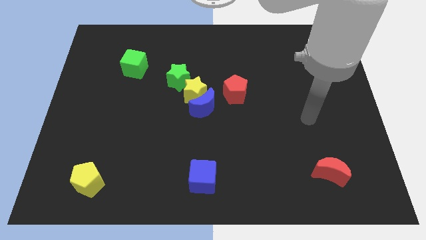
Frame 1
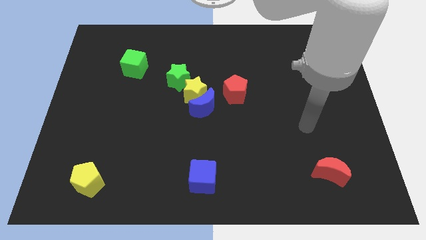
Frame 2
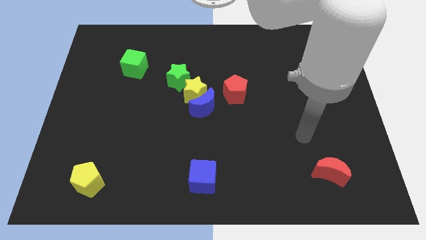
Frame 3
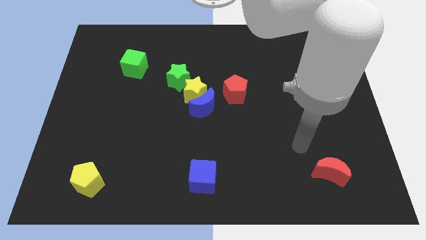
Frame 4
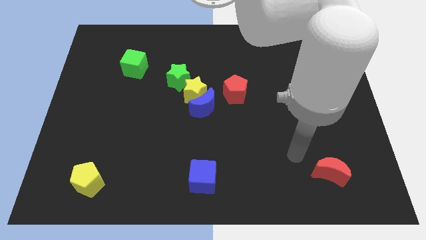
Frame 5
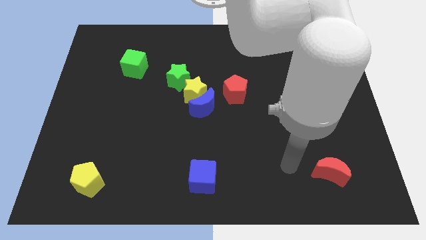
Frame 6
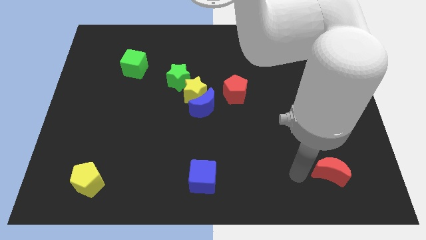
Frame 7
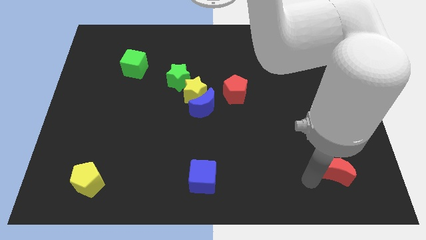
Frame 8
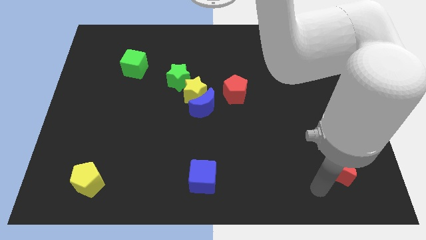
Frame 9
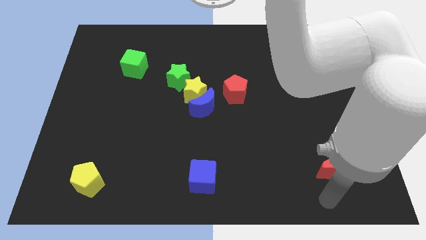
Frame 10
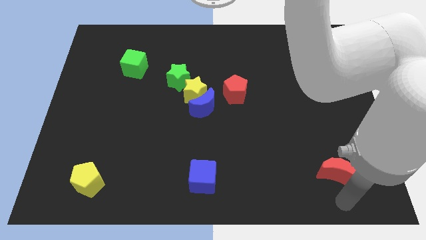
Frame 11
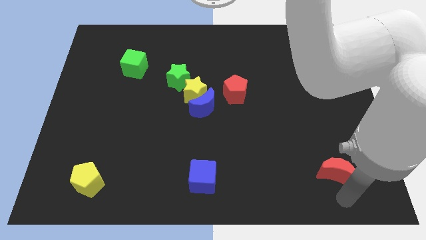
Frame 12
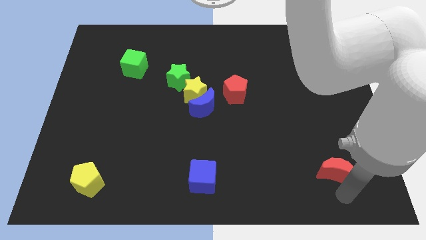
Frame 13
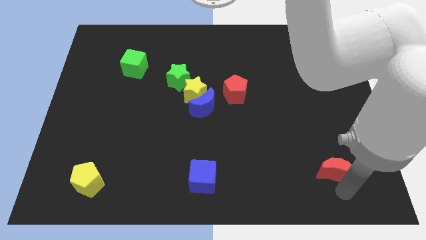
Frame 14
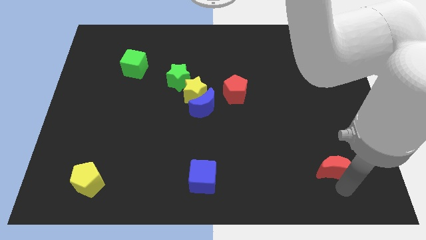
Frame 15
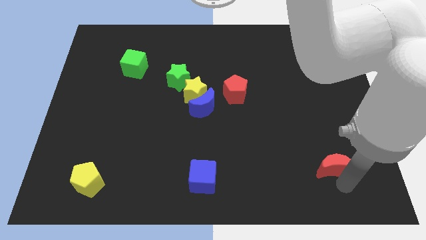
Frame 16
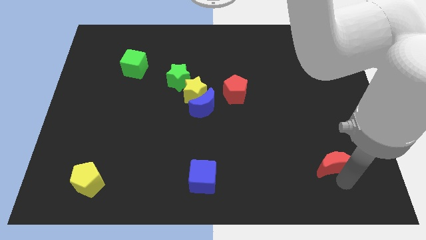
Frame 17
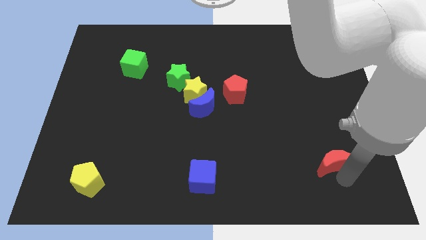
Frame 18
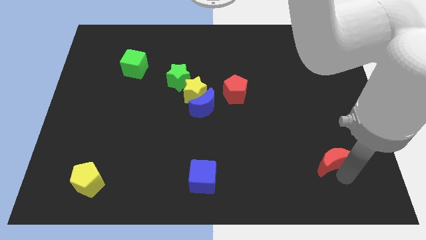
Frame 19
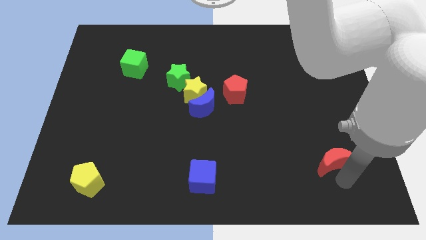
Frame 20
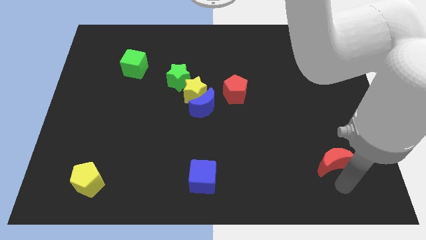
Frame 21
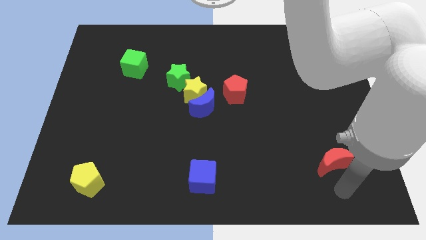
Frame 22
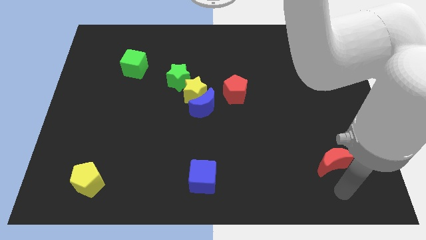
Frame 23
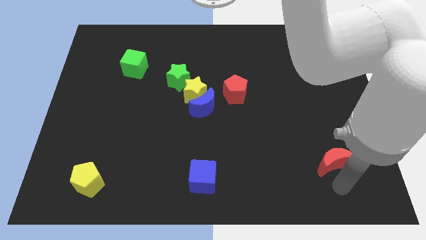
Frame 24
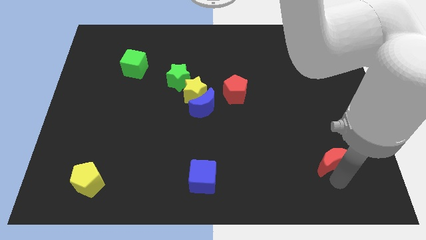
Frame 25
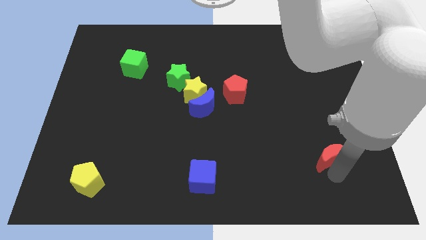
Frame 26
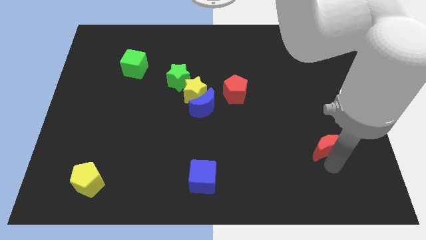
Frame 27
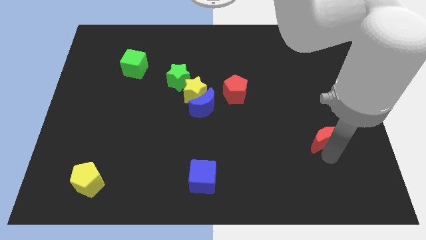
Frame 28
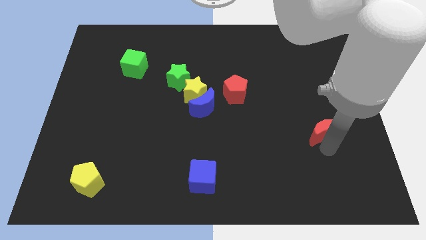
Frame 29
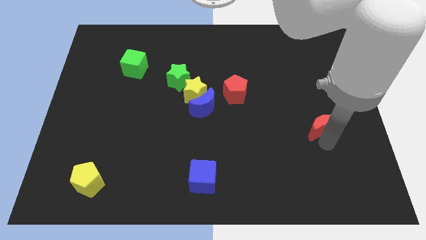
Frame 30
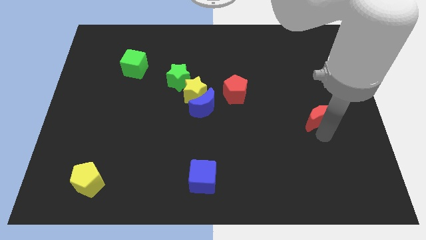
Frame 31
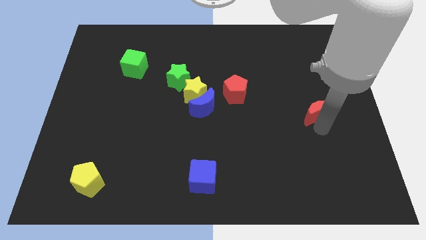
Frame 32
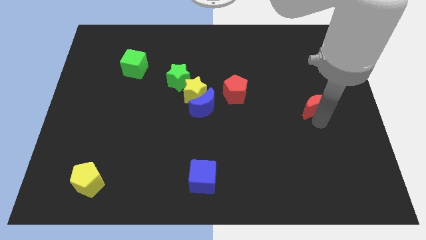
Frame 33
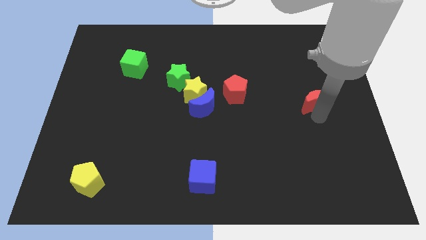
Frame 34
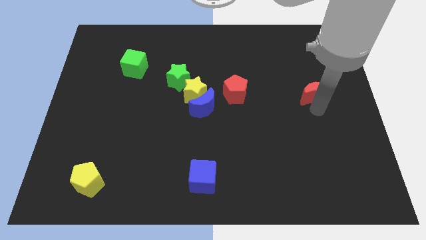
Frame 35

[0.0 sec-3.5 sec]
move the red moon up

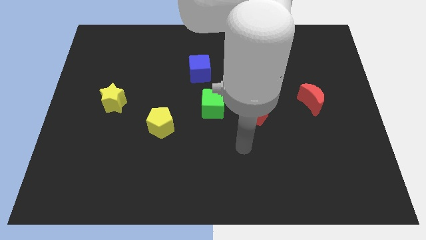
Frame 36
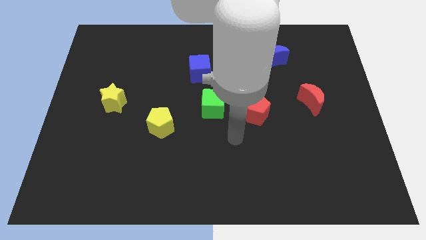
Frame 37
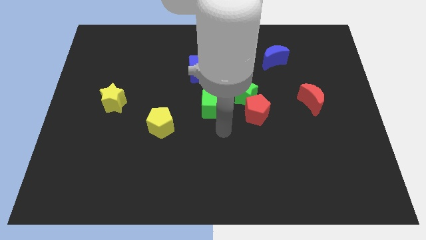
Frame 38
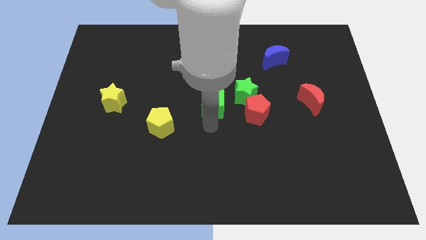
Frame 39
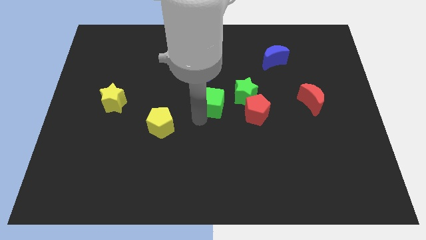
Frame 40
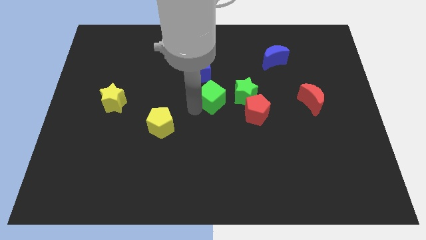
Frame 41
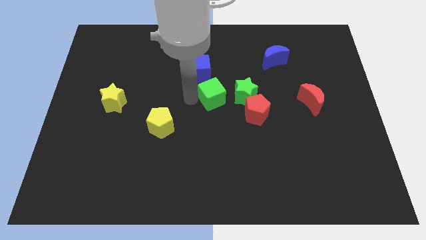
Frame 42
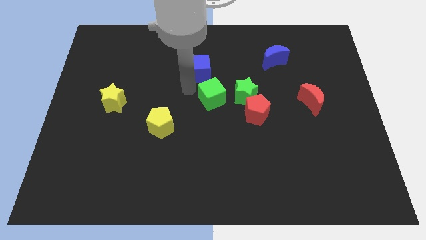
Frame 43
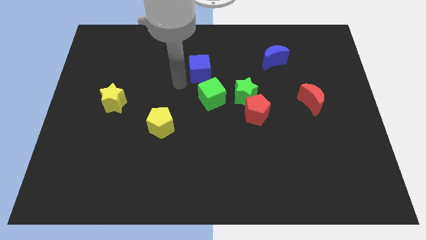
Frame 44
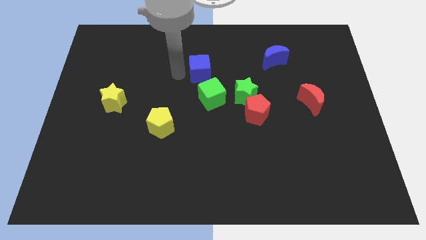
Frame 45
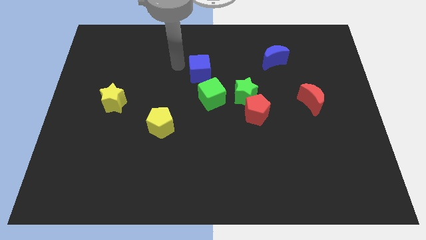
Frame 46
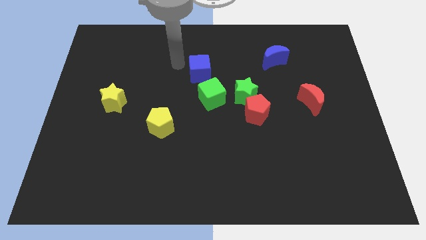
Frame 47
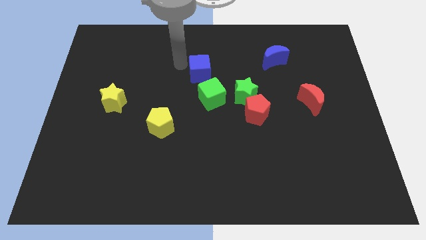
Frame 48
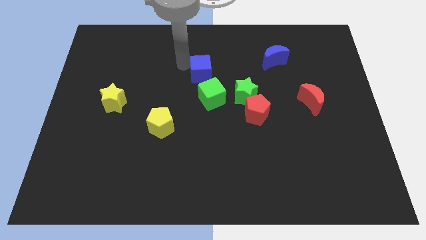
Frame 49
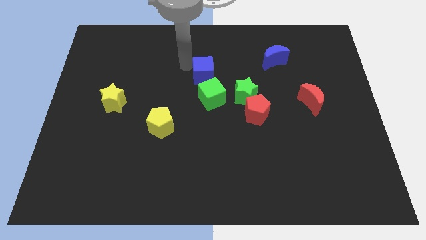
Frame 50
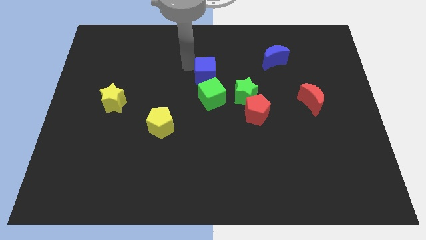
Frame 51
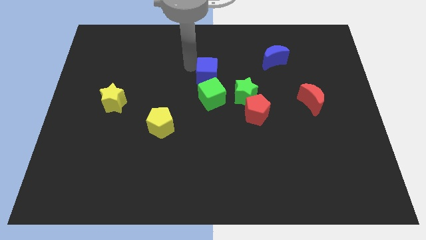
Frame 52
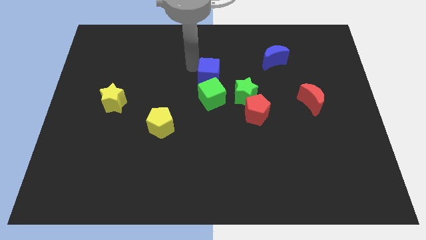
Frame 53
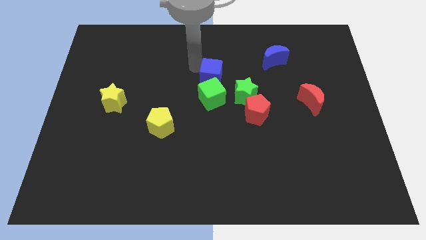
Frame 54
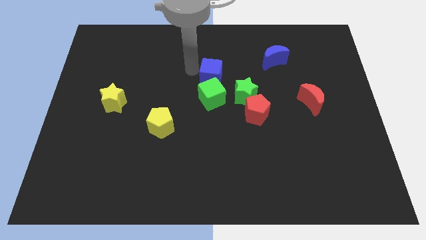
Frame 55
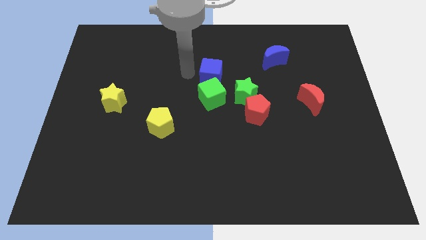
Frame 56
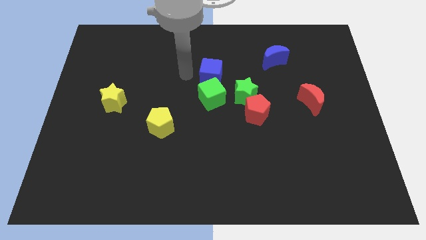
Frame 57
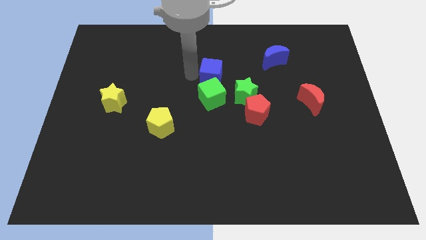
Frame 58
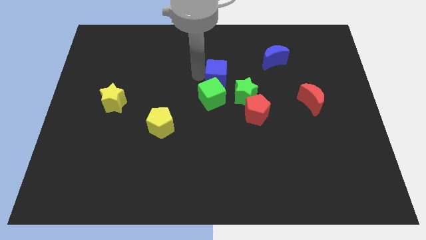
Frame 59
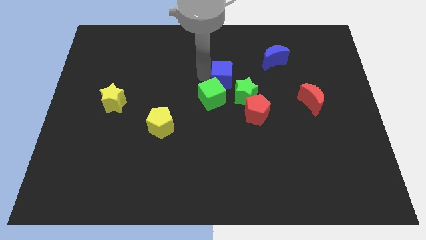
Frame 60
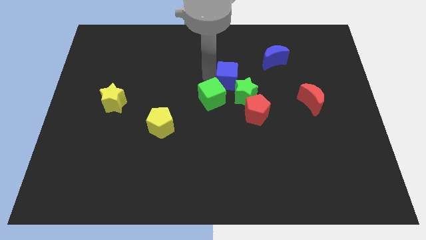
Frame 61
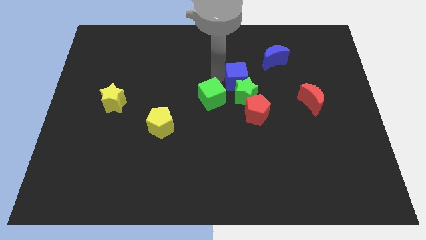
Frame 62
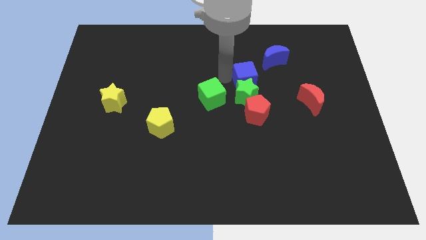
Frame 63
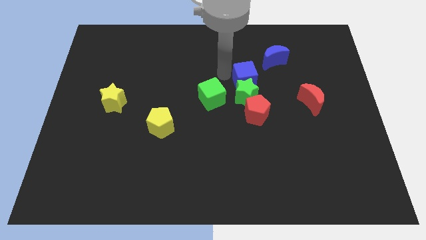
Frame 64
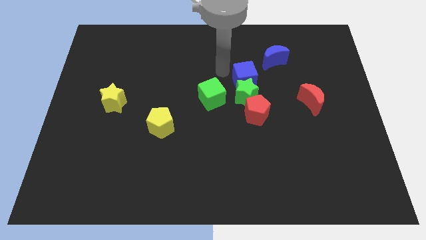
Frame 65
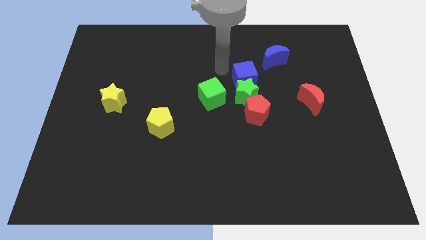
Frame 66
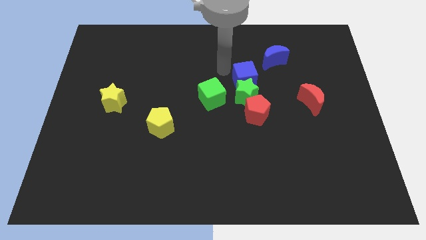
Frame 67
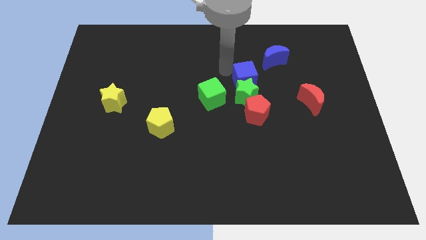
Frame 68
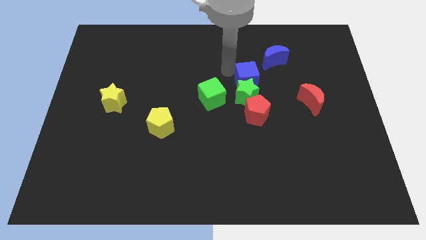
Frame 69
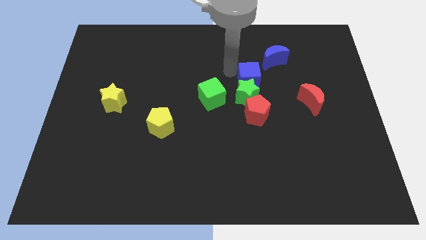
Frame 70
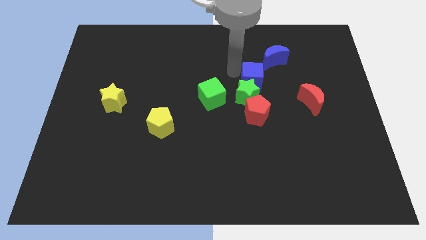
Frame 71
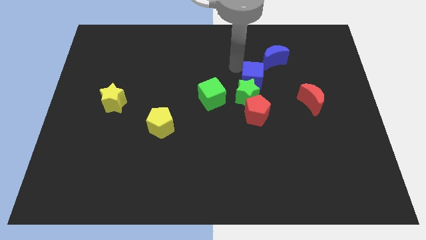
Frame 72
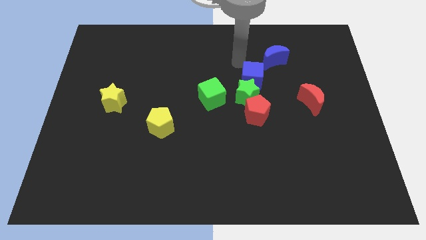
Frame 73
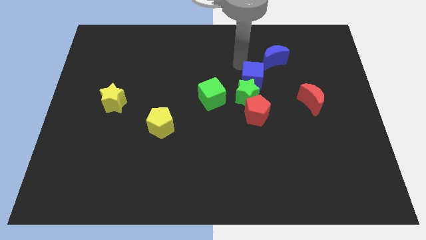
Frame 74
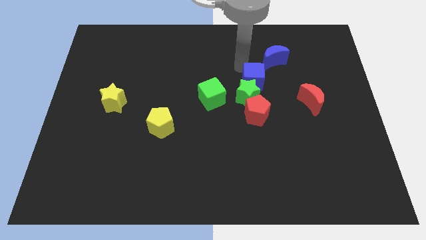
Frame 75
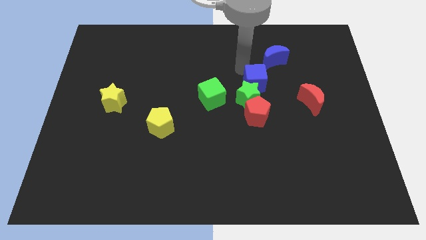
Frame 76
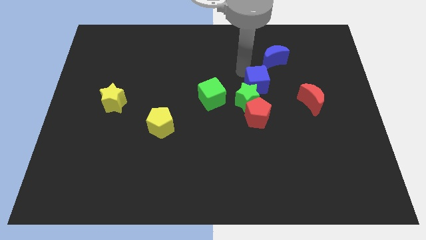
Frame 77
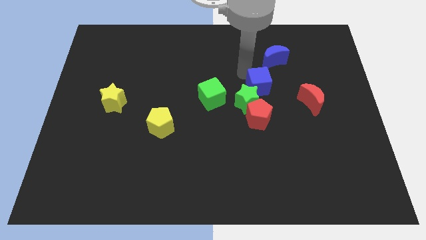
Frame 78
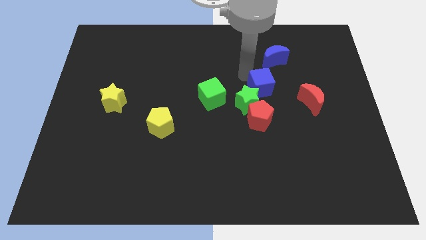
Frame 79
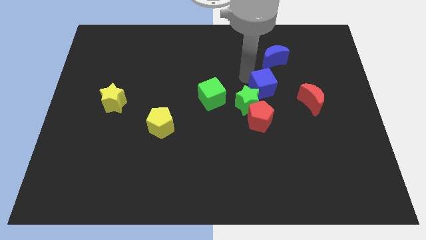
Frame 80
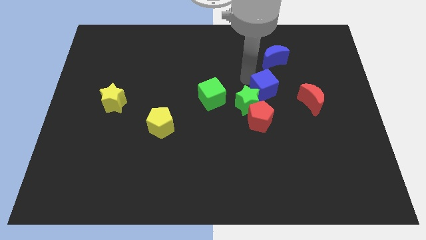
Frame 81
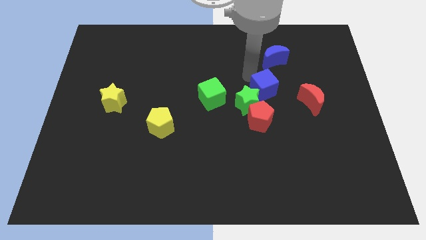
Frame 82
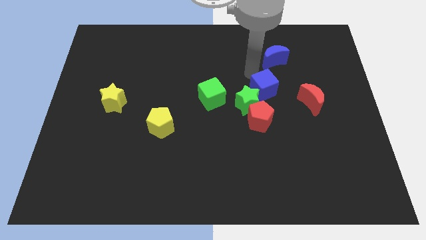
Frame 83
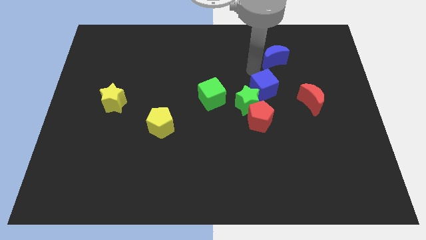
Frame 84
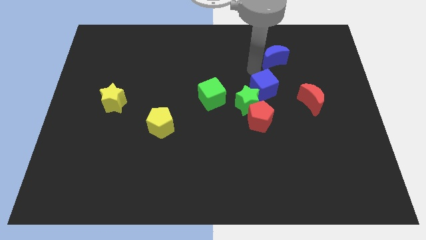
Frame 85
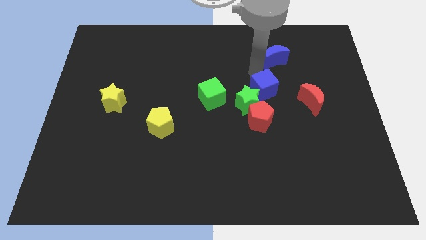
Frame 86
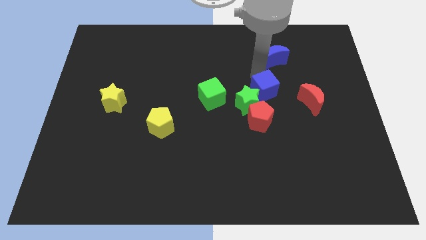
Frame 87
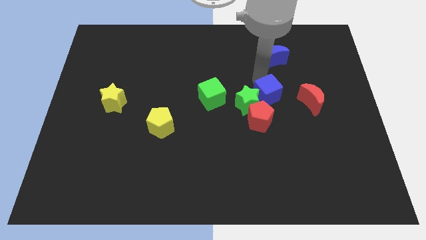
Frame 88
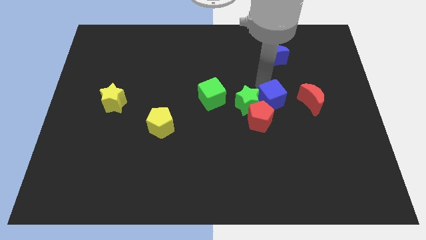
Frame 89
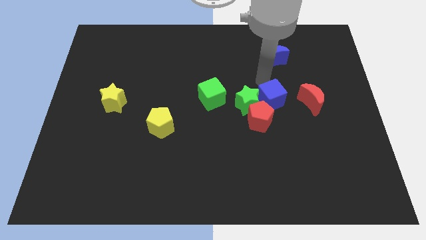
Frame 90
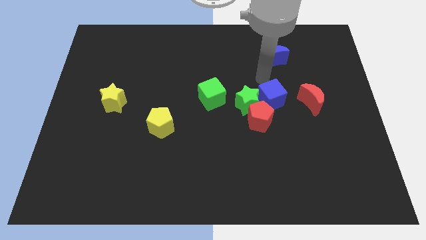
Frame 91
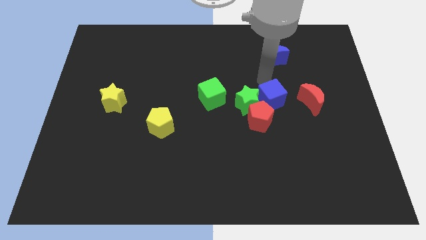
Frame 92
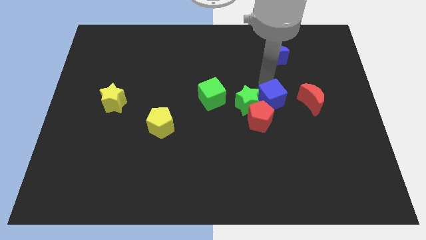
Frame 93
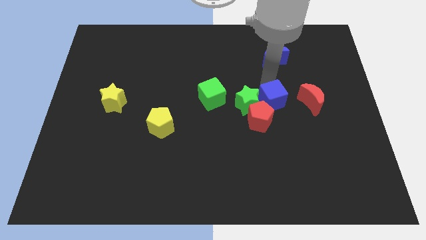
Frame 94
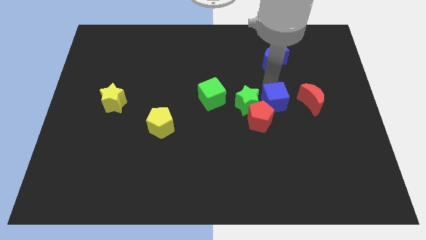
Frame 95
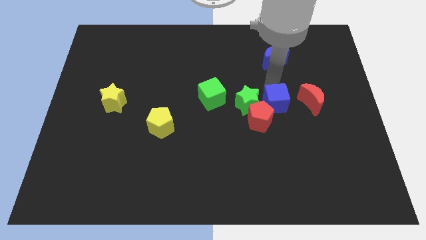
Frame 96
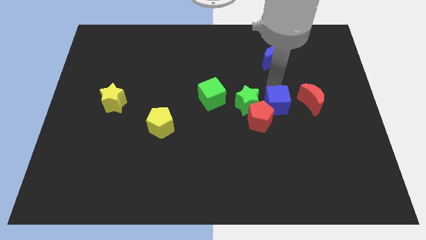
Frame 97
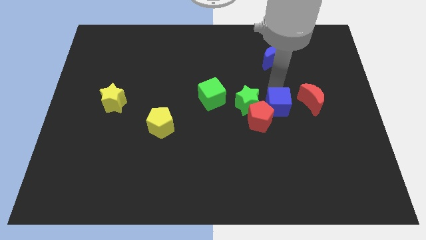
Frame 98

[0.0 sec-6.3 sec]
move the blue cube downwards and right diagonally
